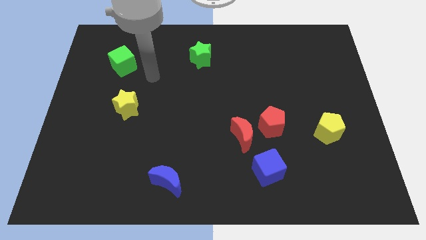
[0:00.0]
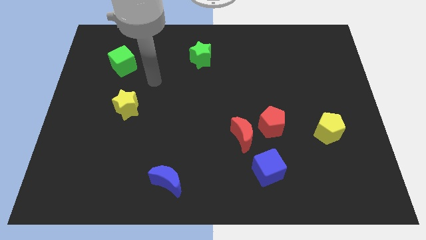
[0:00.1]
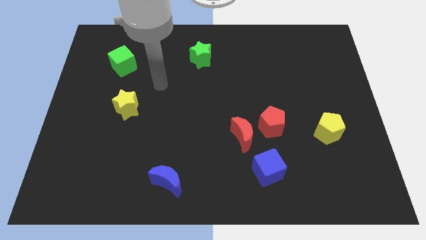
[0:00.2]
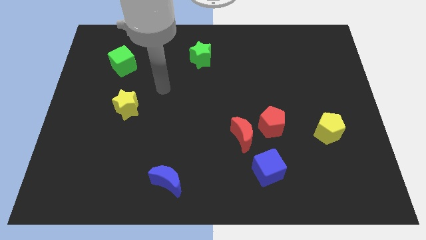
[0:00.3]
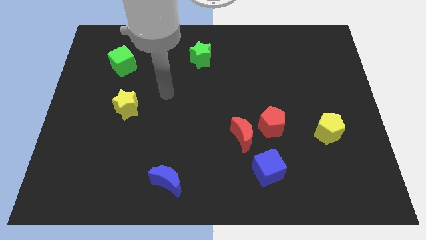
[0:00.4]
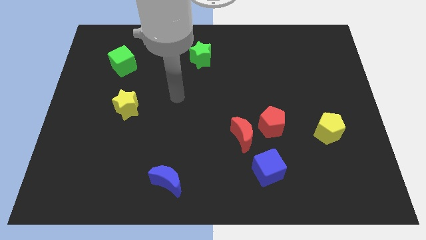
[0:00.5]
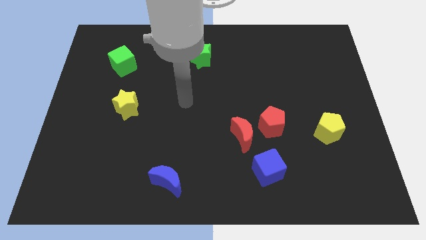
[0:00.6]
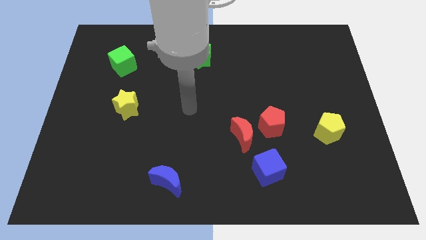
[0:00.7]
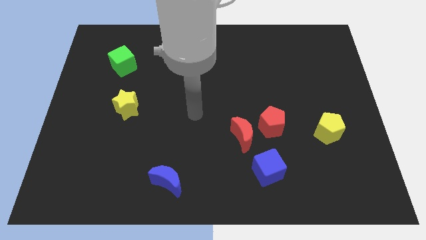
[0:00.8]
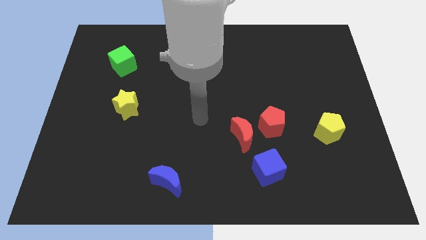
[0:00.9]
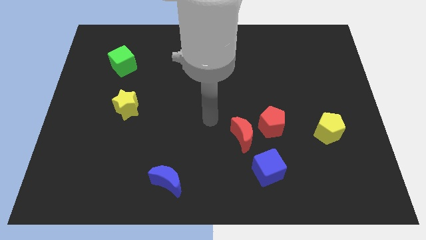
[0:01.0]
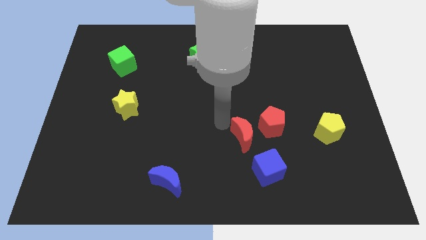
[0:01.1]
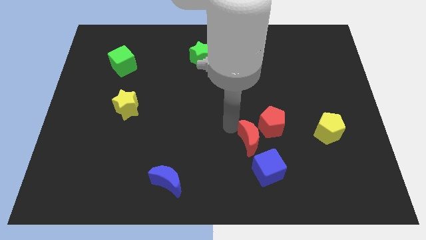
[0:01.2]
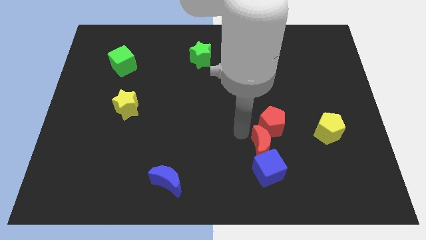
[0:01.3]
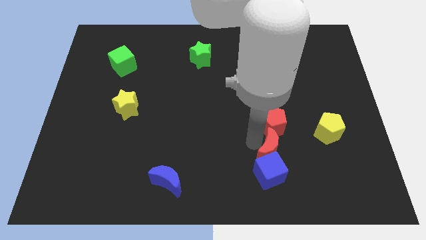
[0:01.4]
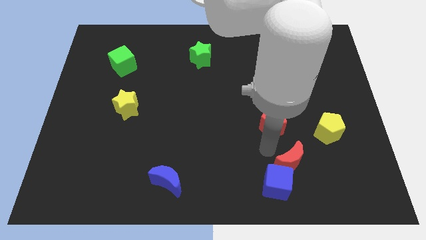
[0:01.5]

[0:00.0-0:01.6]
separate the red pentagon from the red moon

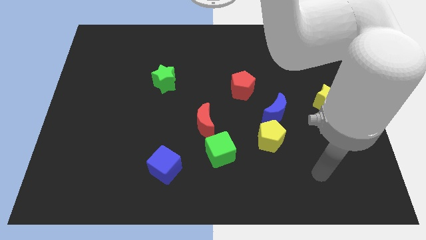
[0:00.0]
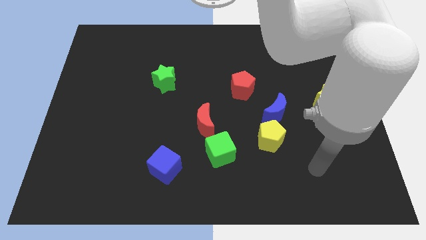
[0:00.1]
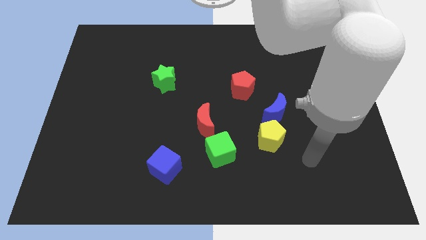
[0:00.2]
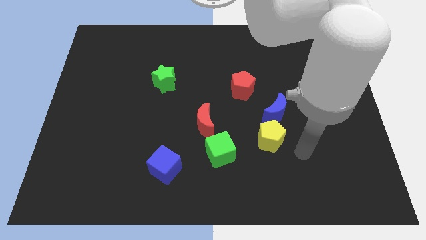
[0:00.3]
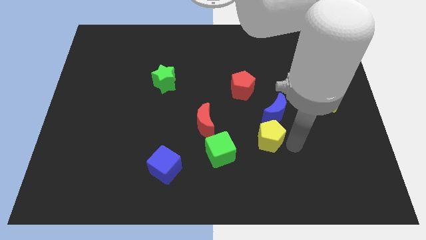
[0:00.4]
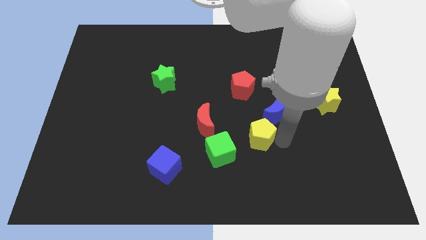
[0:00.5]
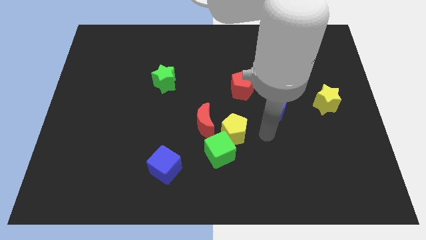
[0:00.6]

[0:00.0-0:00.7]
pull the blue moon apart from the yellow pentagon

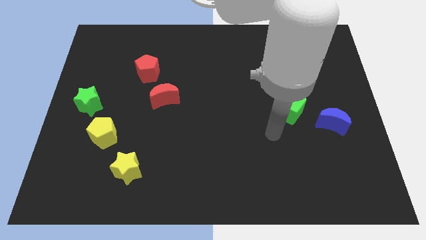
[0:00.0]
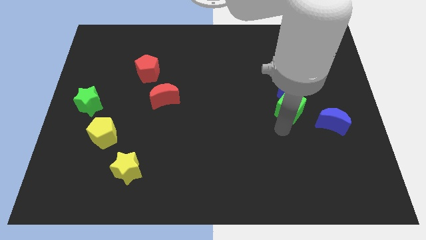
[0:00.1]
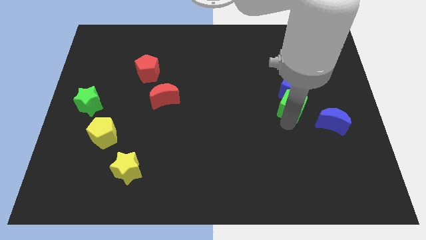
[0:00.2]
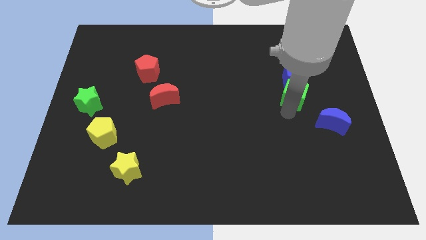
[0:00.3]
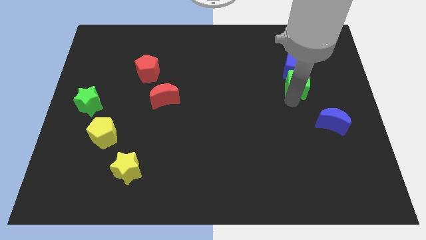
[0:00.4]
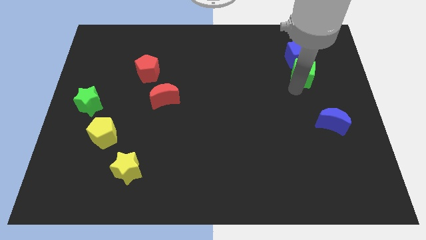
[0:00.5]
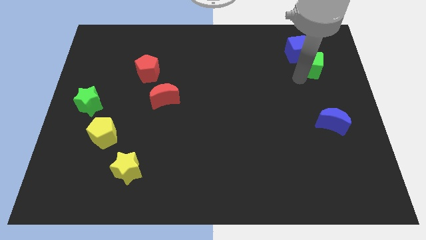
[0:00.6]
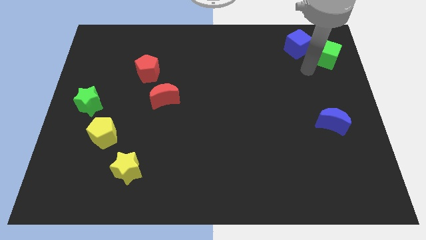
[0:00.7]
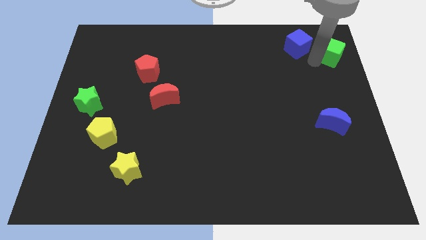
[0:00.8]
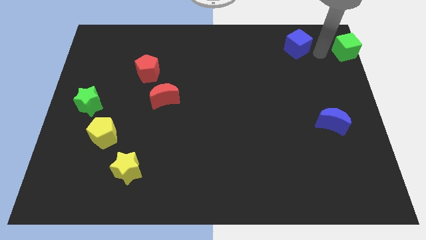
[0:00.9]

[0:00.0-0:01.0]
separate the blue cube from the green cube

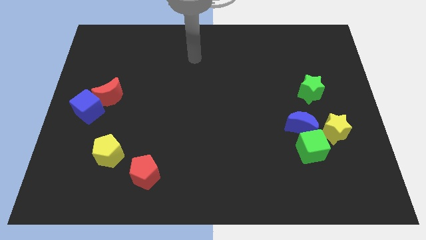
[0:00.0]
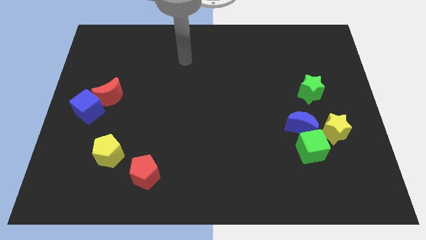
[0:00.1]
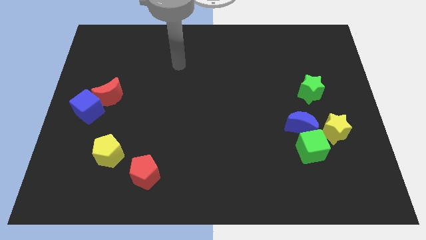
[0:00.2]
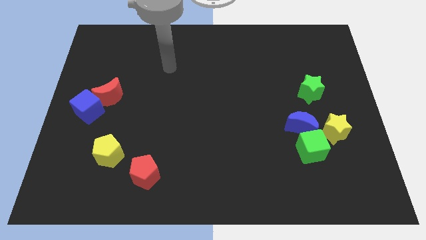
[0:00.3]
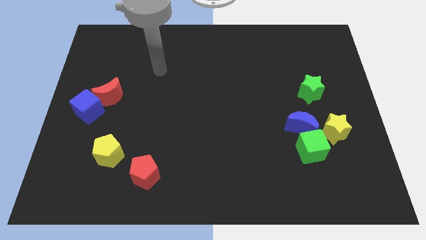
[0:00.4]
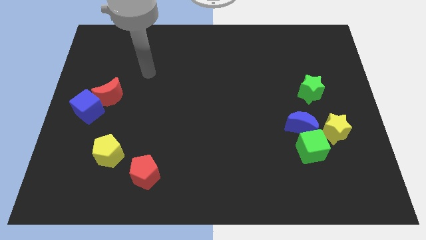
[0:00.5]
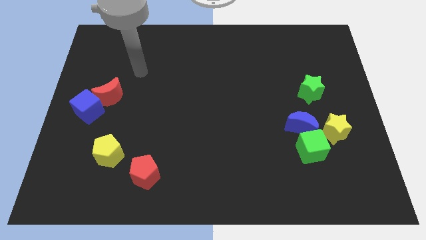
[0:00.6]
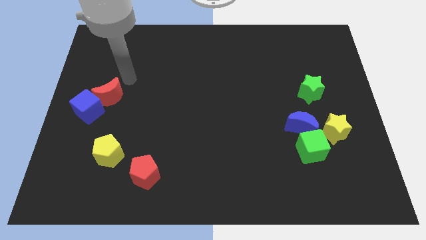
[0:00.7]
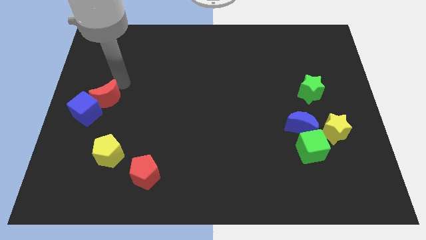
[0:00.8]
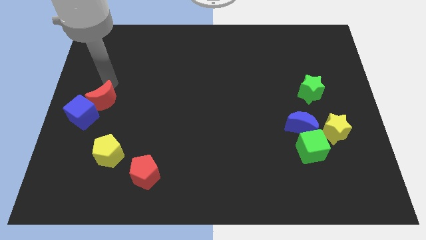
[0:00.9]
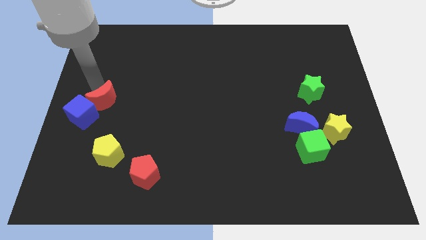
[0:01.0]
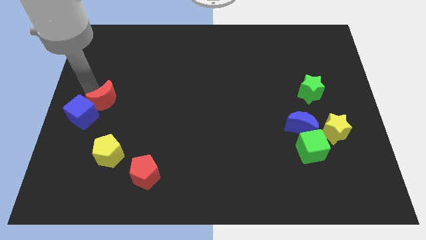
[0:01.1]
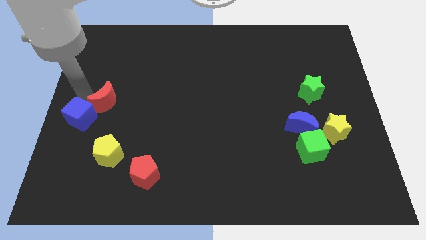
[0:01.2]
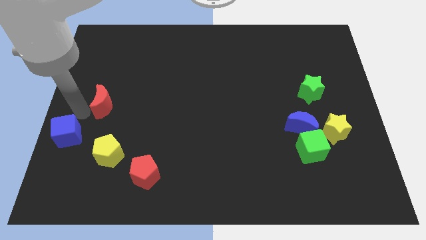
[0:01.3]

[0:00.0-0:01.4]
pull the red moon apart from the blue cube

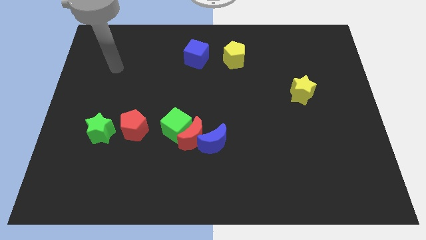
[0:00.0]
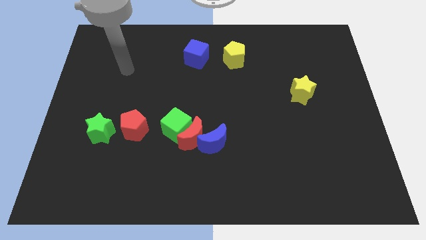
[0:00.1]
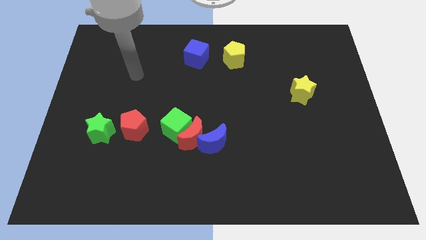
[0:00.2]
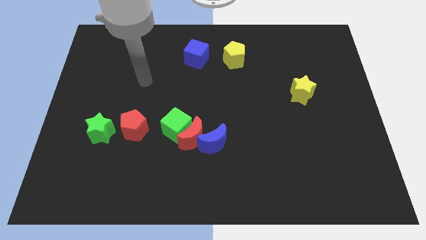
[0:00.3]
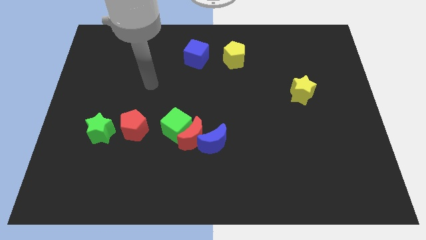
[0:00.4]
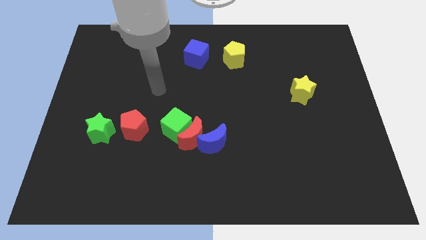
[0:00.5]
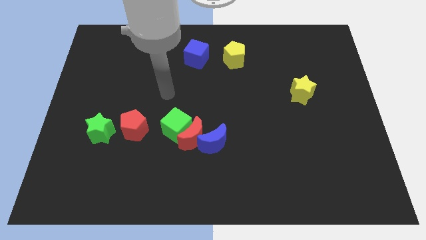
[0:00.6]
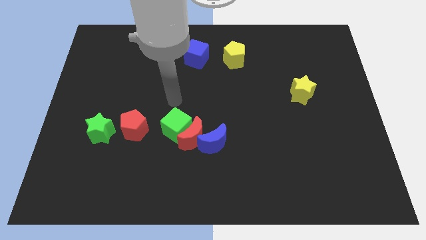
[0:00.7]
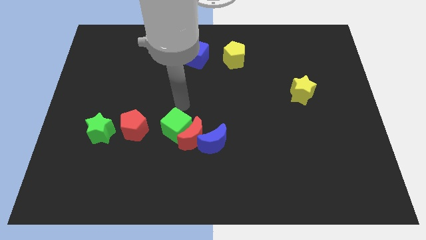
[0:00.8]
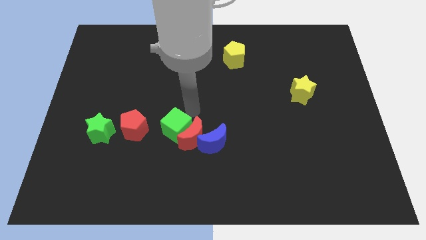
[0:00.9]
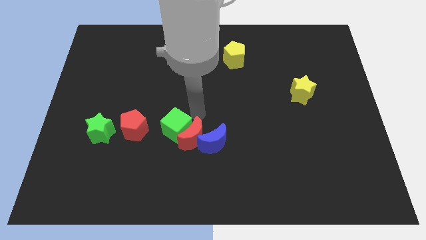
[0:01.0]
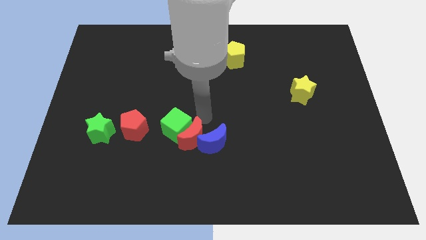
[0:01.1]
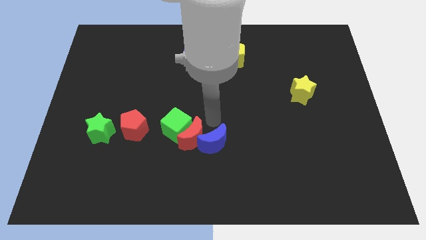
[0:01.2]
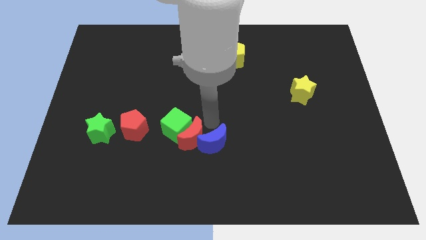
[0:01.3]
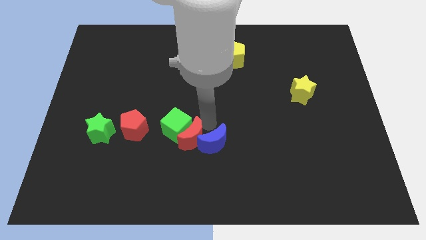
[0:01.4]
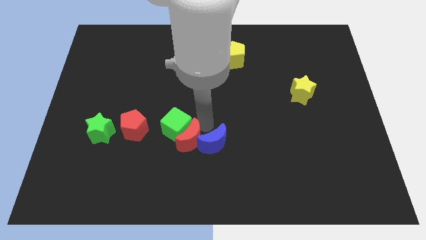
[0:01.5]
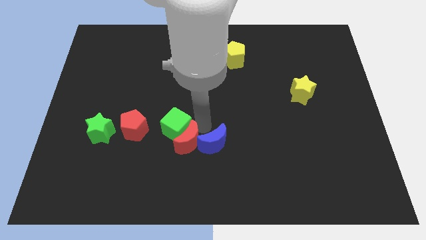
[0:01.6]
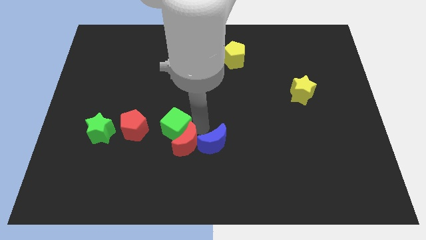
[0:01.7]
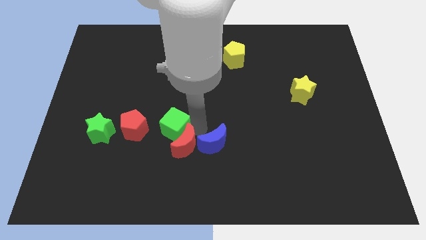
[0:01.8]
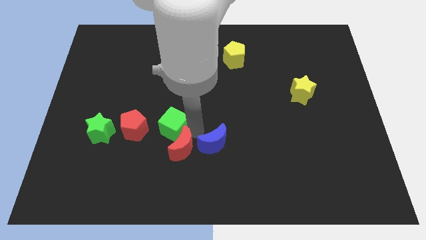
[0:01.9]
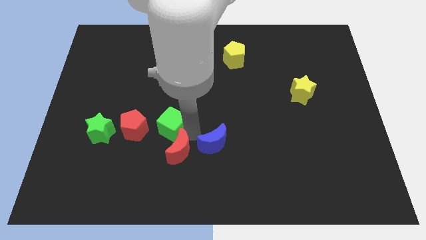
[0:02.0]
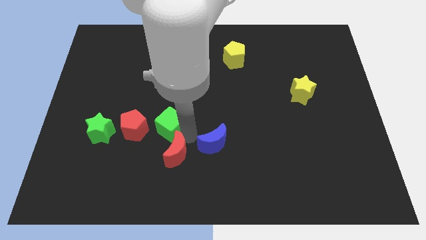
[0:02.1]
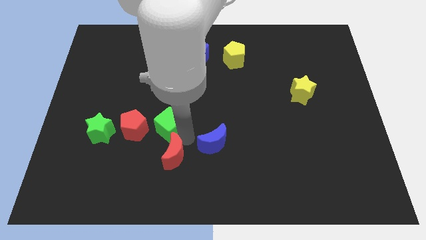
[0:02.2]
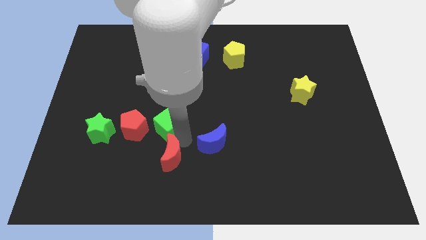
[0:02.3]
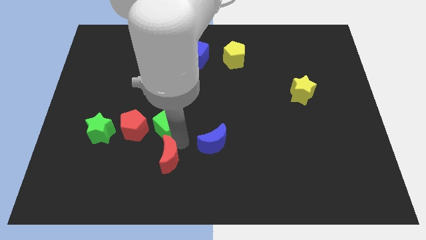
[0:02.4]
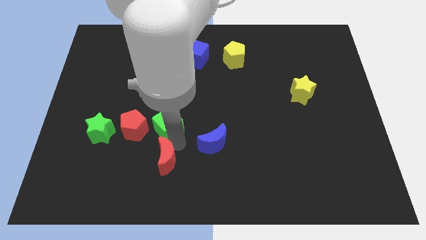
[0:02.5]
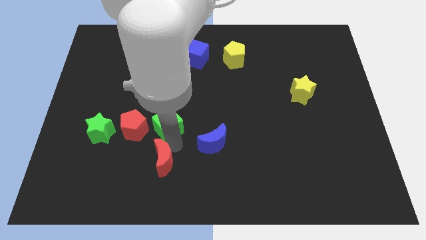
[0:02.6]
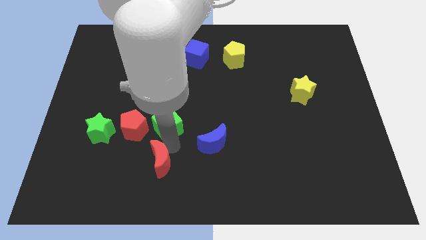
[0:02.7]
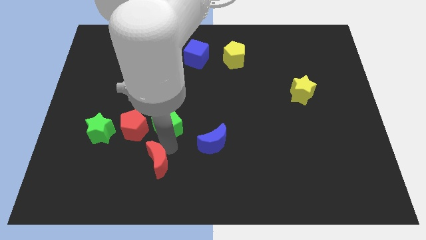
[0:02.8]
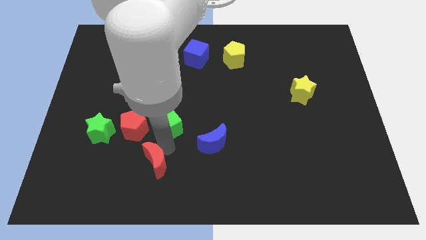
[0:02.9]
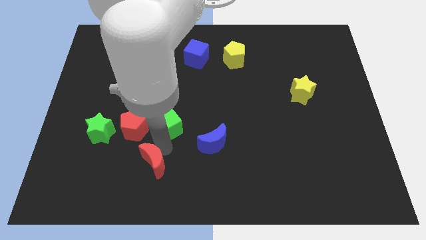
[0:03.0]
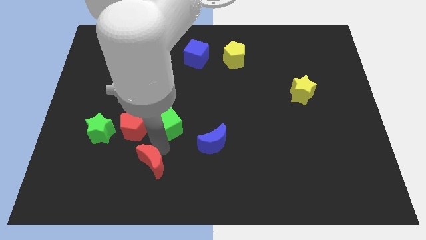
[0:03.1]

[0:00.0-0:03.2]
move the red moon away from the green cube and blue moon

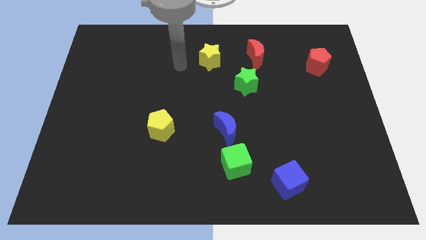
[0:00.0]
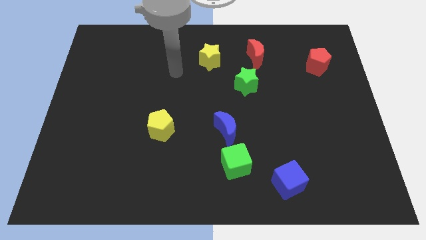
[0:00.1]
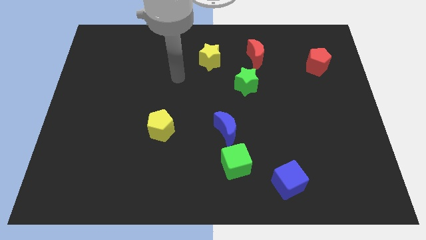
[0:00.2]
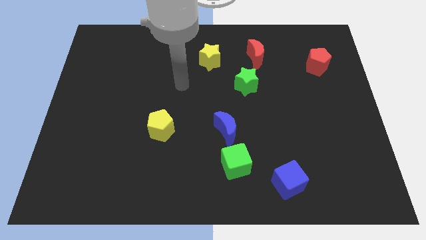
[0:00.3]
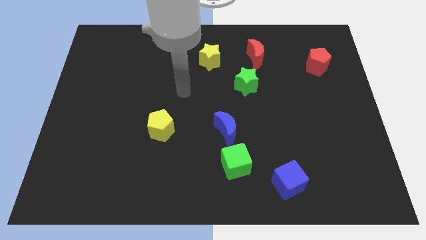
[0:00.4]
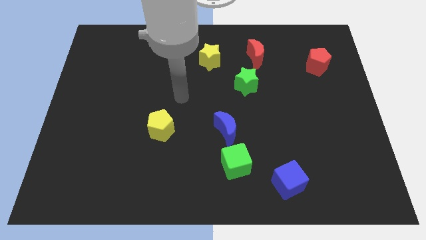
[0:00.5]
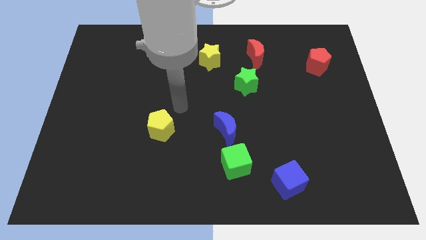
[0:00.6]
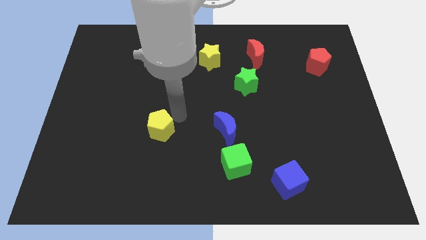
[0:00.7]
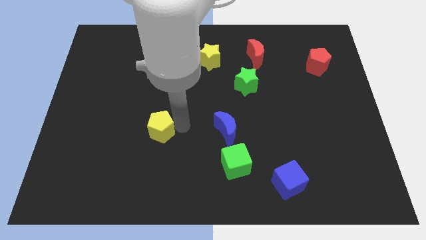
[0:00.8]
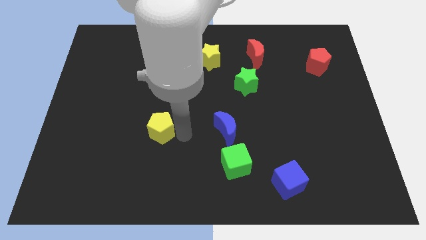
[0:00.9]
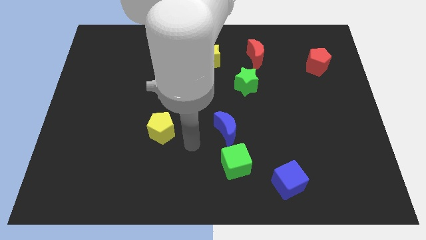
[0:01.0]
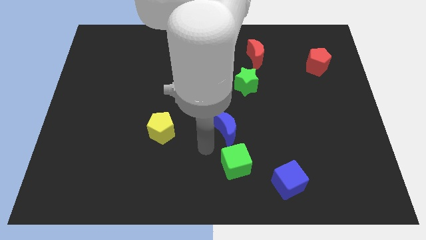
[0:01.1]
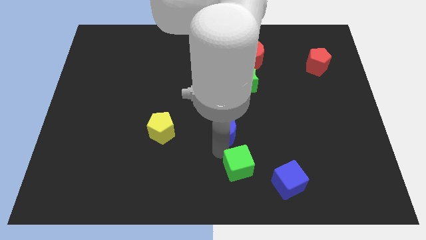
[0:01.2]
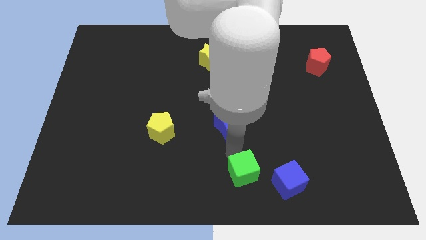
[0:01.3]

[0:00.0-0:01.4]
move the blue moon away from the green cube
